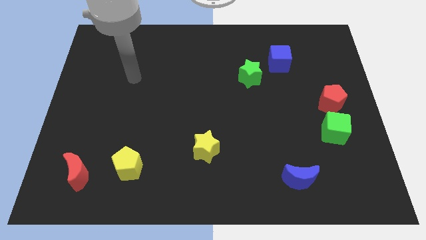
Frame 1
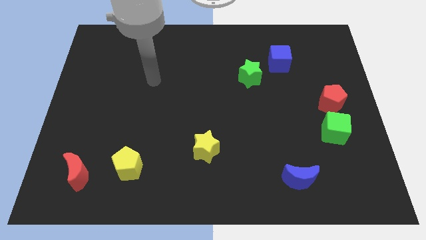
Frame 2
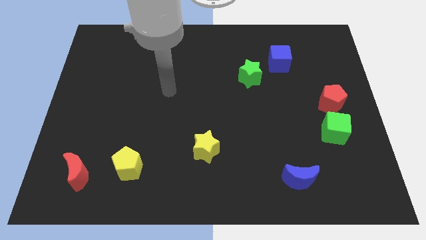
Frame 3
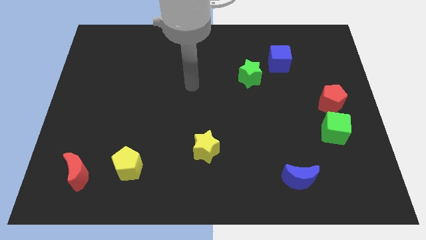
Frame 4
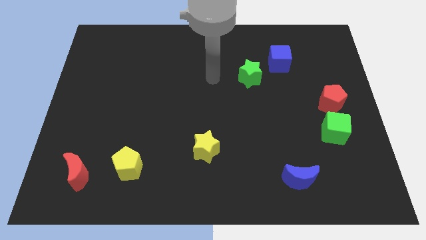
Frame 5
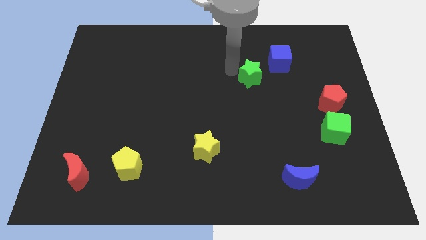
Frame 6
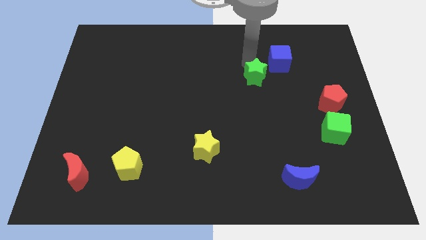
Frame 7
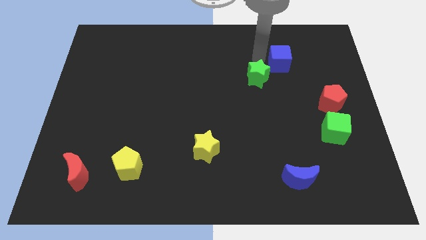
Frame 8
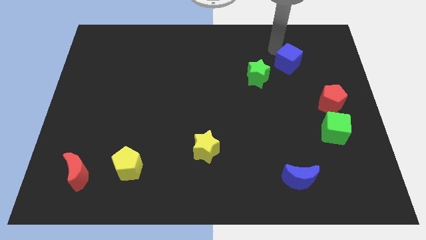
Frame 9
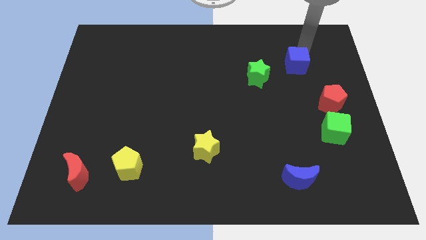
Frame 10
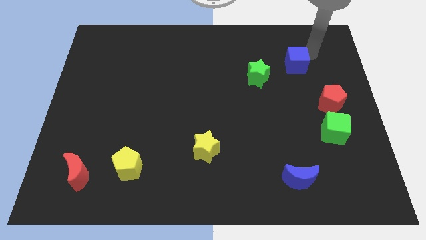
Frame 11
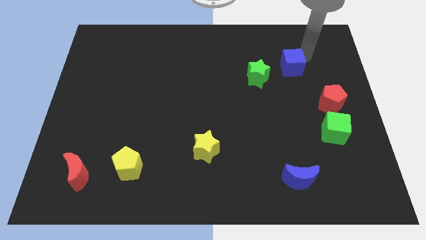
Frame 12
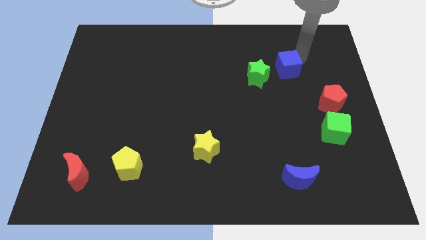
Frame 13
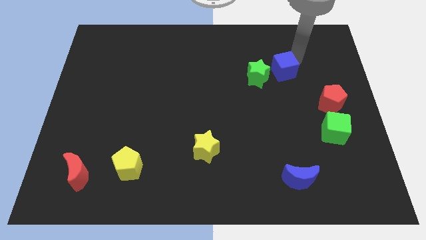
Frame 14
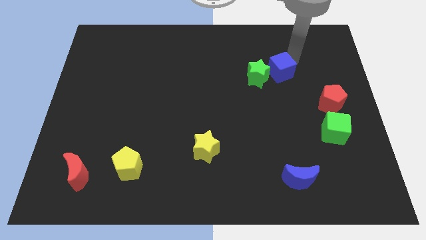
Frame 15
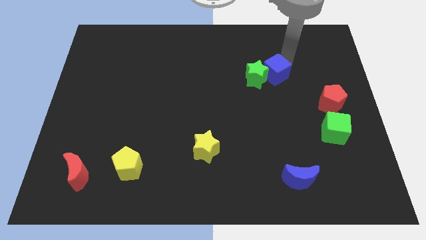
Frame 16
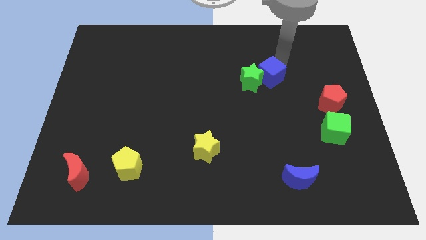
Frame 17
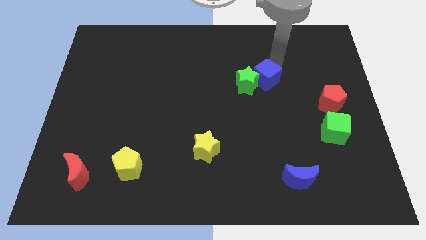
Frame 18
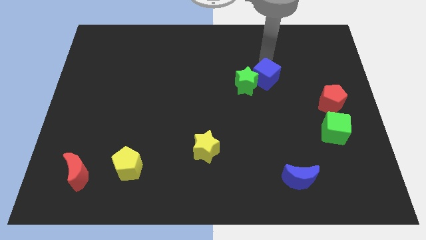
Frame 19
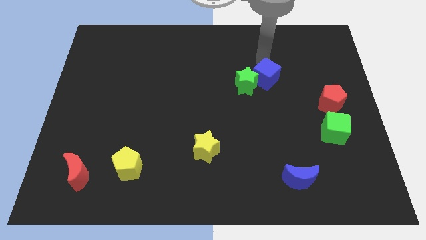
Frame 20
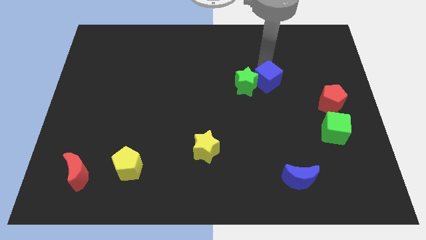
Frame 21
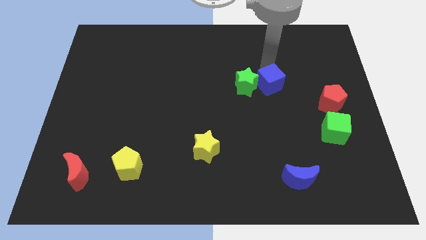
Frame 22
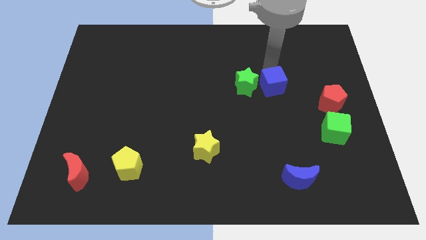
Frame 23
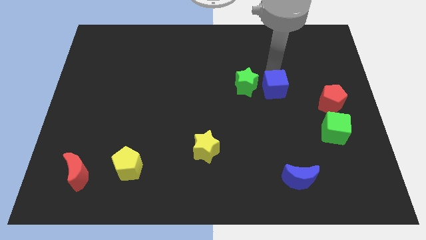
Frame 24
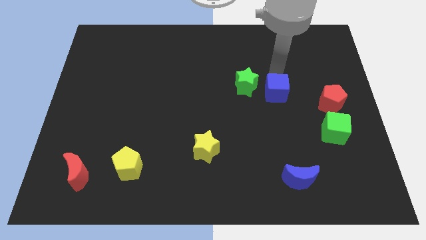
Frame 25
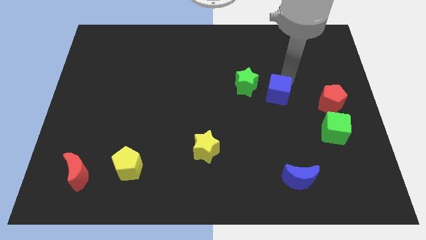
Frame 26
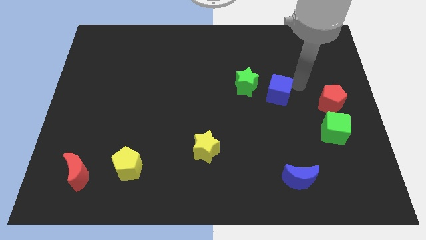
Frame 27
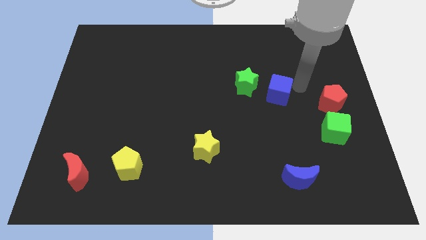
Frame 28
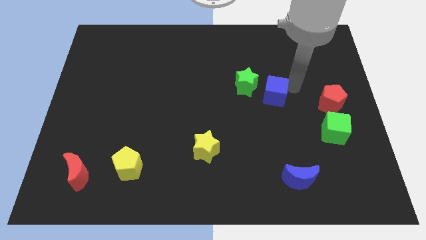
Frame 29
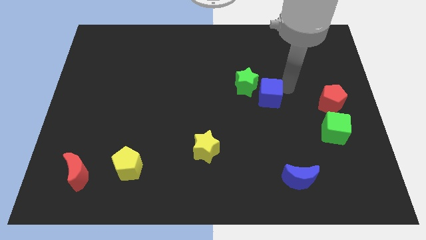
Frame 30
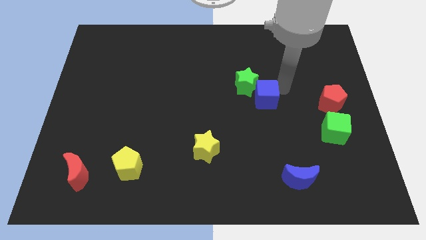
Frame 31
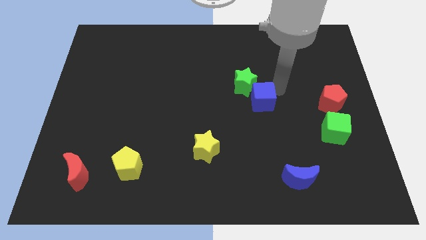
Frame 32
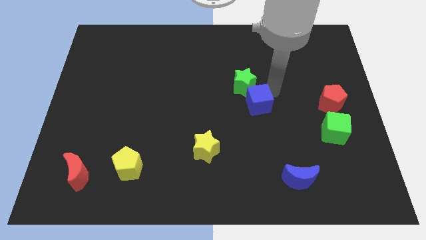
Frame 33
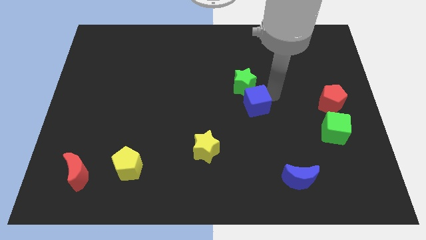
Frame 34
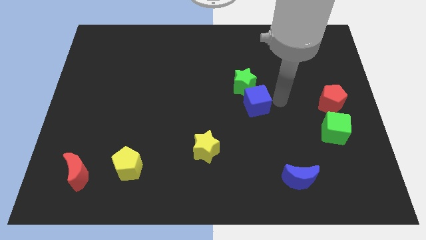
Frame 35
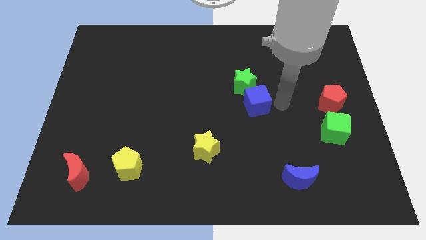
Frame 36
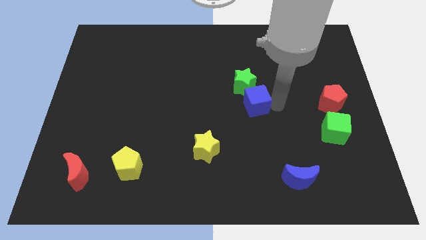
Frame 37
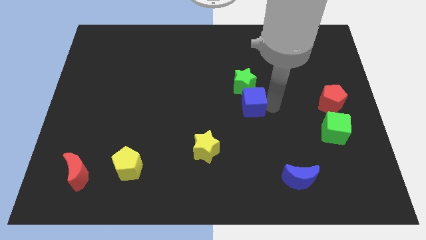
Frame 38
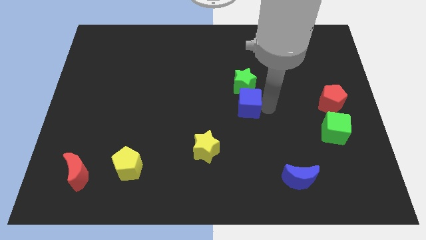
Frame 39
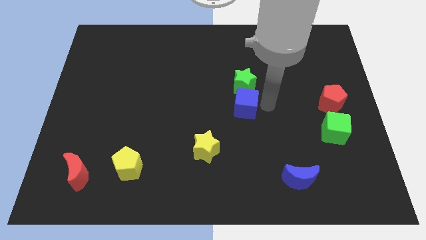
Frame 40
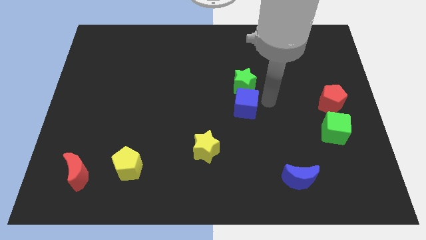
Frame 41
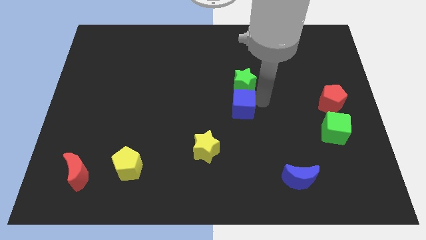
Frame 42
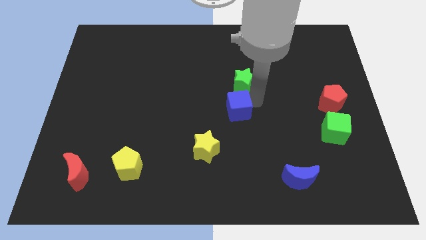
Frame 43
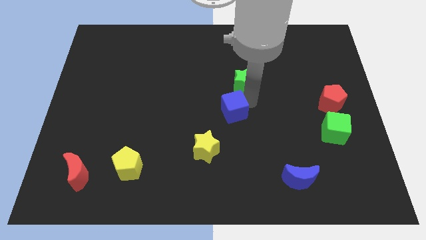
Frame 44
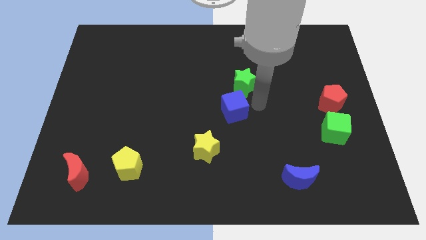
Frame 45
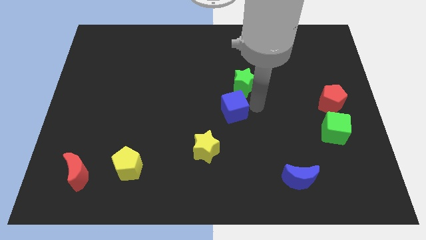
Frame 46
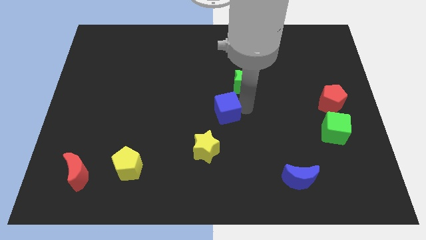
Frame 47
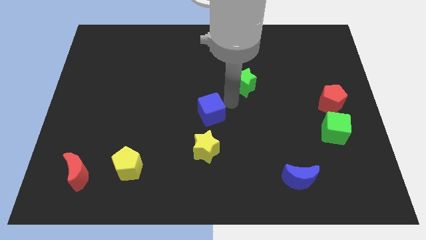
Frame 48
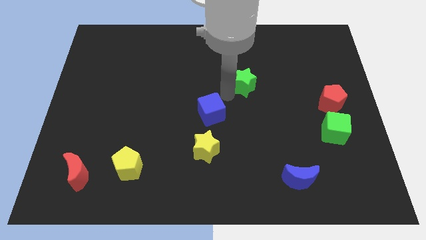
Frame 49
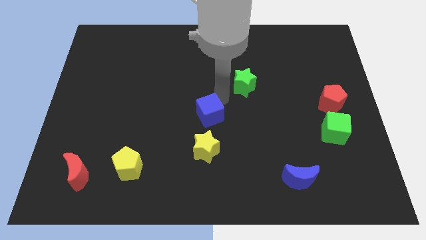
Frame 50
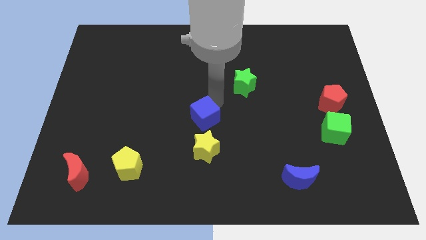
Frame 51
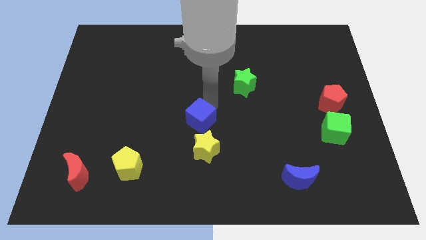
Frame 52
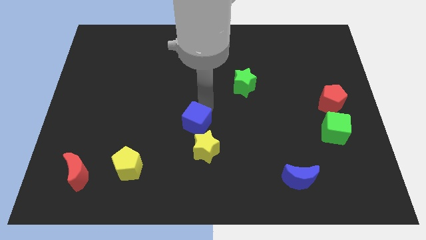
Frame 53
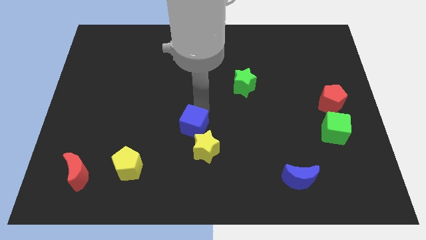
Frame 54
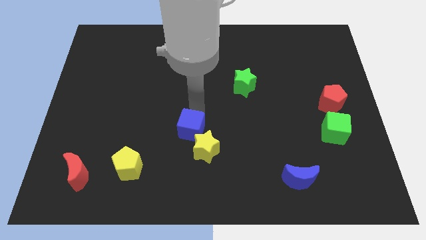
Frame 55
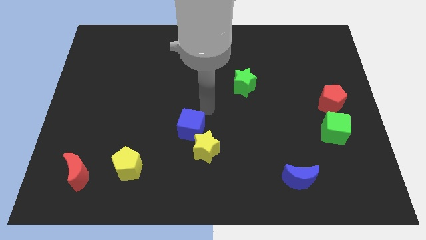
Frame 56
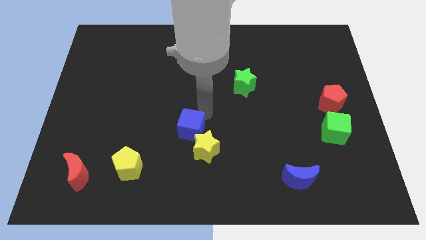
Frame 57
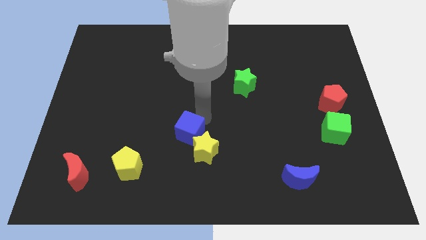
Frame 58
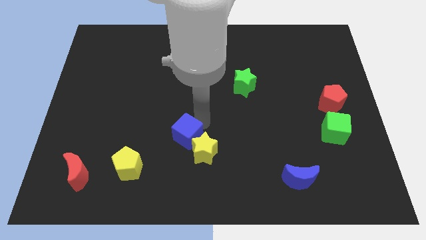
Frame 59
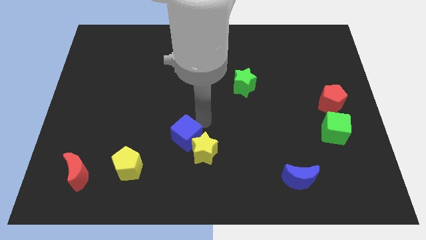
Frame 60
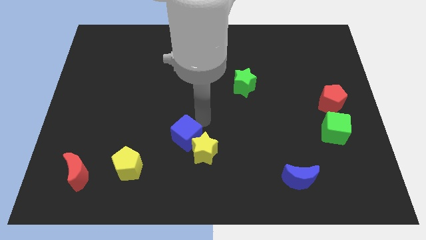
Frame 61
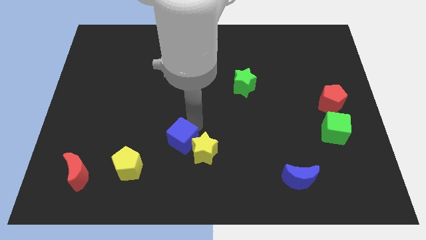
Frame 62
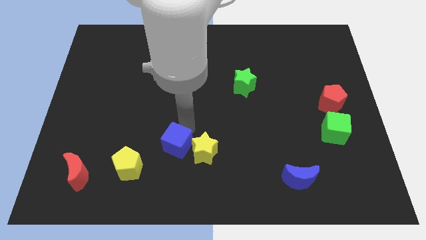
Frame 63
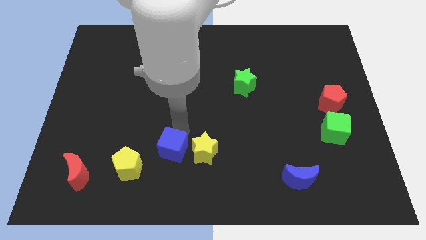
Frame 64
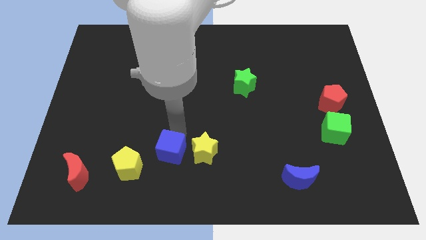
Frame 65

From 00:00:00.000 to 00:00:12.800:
move the blue cube to the bottom left side of the yellow star
